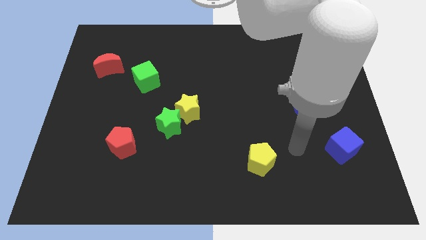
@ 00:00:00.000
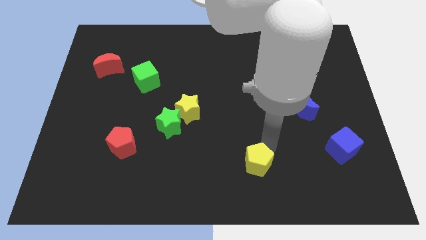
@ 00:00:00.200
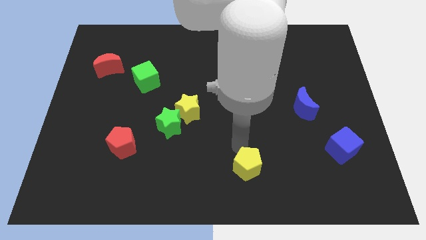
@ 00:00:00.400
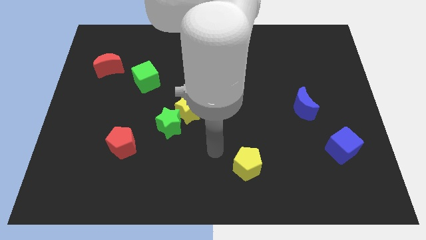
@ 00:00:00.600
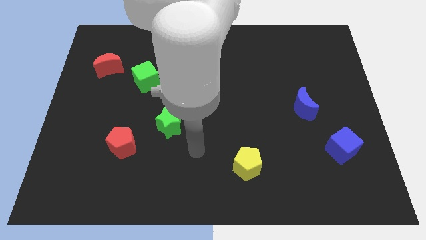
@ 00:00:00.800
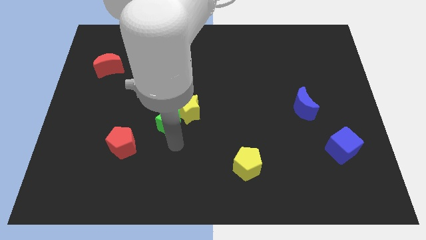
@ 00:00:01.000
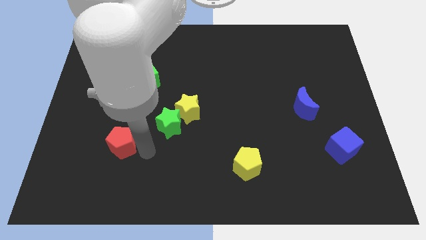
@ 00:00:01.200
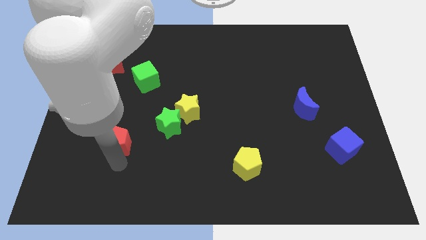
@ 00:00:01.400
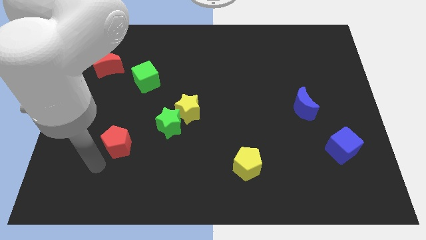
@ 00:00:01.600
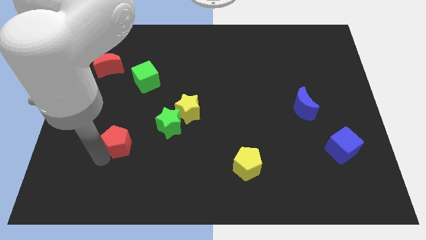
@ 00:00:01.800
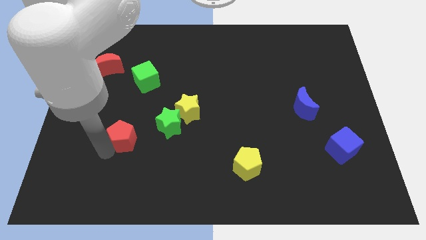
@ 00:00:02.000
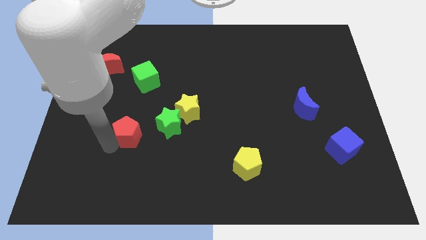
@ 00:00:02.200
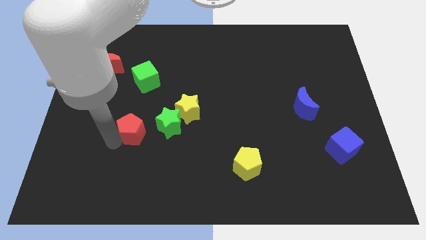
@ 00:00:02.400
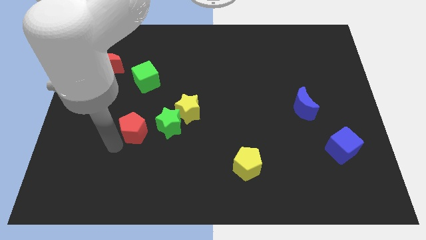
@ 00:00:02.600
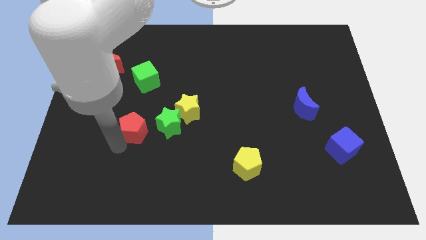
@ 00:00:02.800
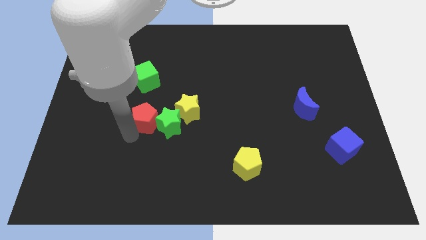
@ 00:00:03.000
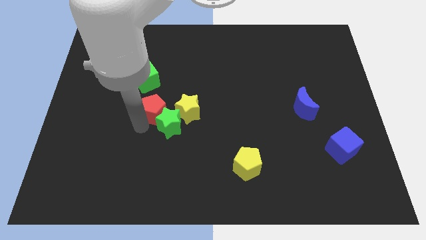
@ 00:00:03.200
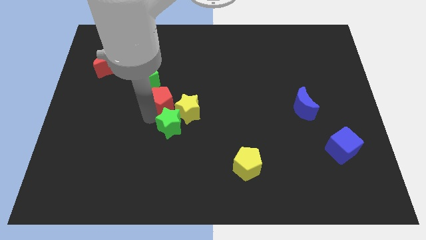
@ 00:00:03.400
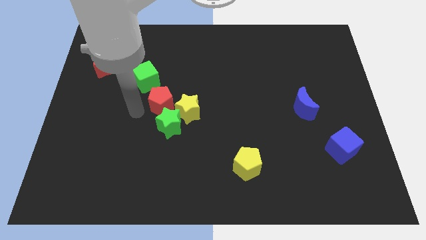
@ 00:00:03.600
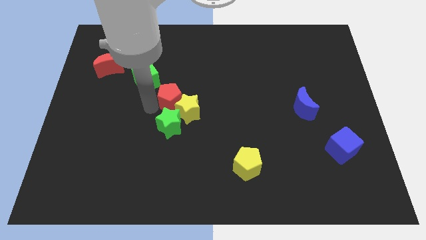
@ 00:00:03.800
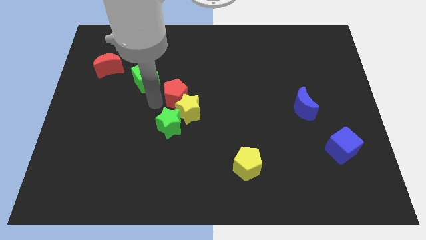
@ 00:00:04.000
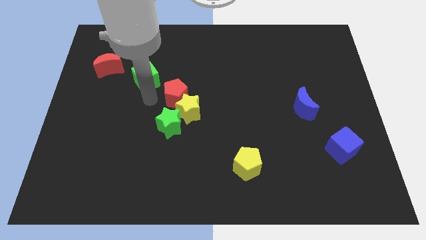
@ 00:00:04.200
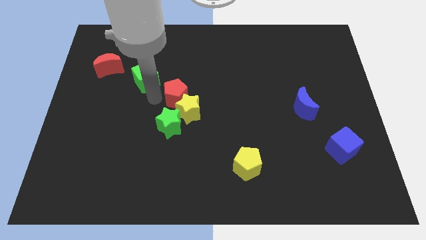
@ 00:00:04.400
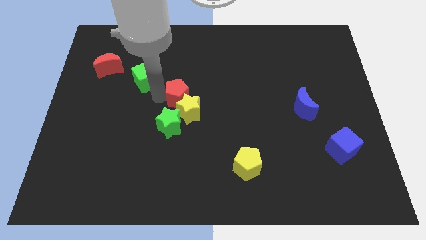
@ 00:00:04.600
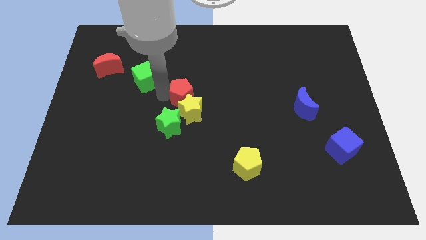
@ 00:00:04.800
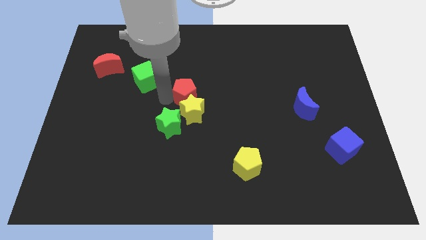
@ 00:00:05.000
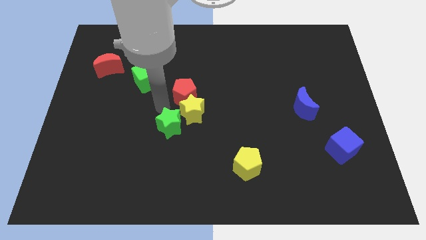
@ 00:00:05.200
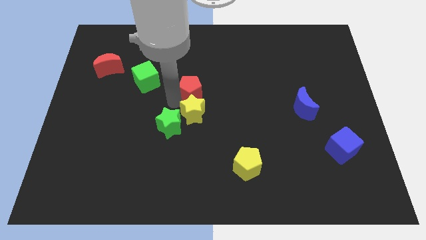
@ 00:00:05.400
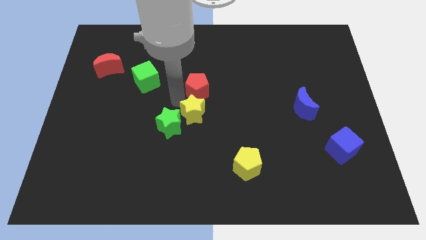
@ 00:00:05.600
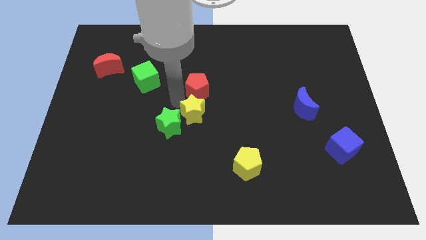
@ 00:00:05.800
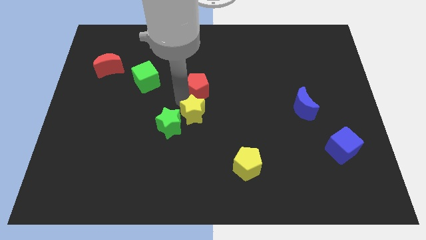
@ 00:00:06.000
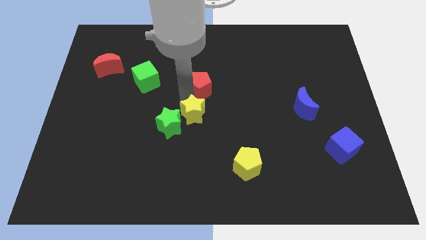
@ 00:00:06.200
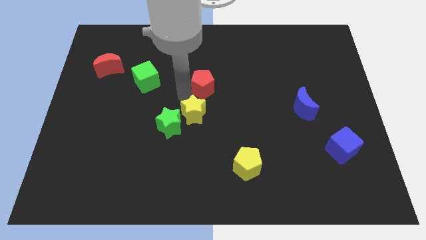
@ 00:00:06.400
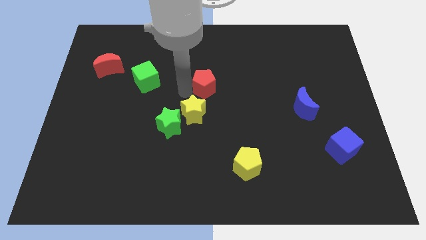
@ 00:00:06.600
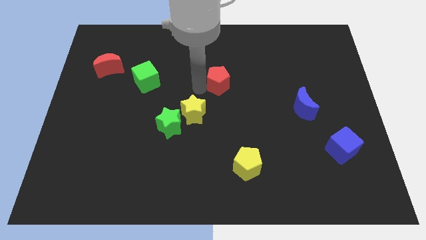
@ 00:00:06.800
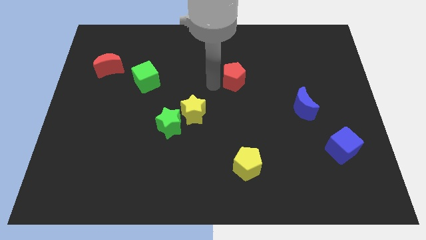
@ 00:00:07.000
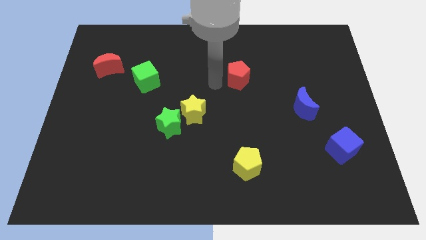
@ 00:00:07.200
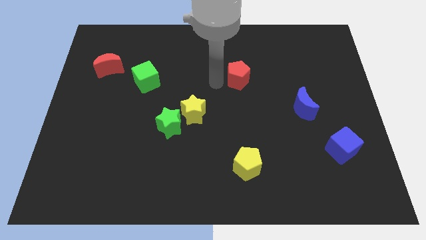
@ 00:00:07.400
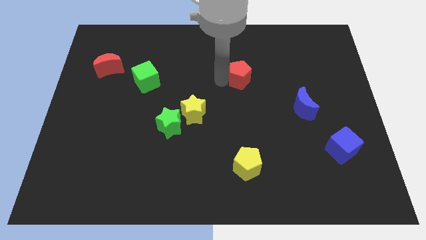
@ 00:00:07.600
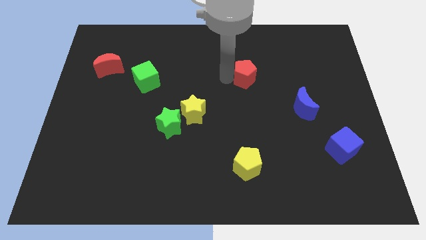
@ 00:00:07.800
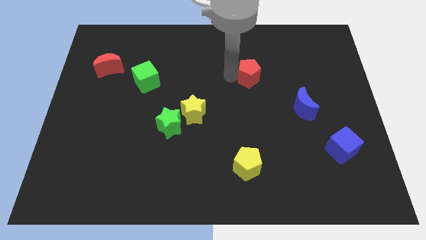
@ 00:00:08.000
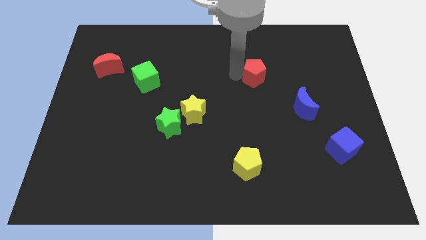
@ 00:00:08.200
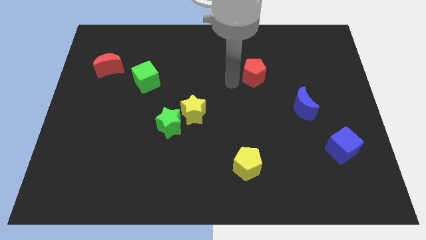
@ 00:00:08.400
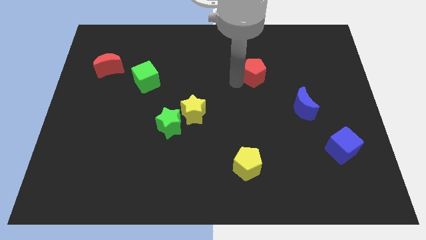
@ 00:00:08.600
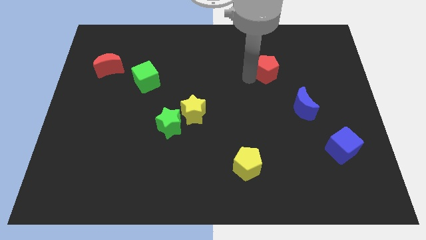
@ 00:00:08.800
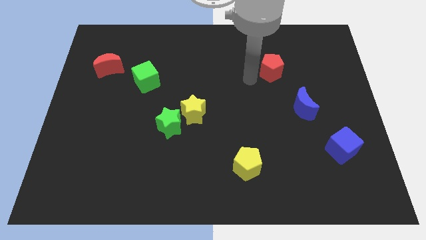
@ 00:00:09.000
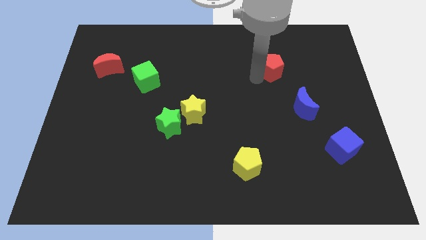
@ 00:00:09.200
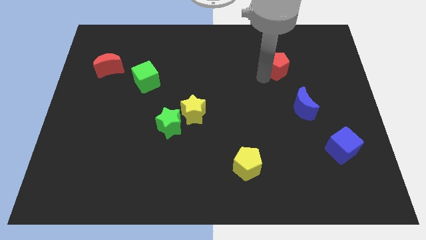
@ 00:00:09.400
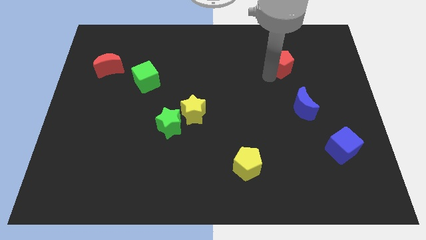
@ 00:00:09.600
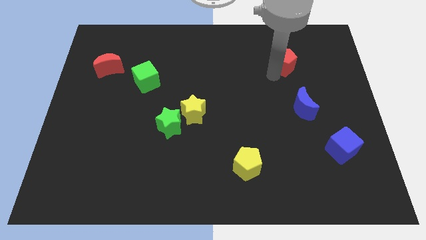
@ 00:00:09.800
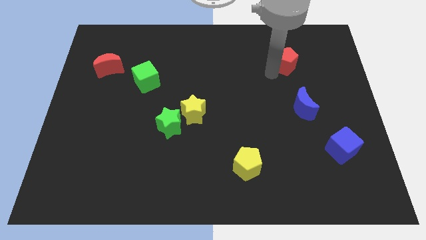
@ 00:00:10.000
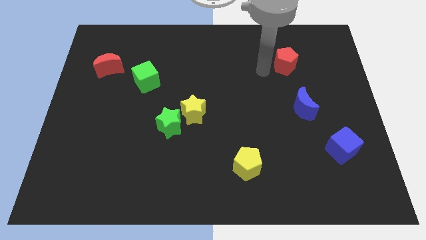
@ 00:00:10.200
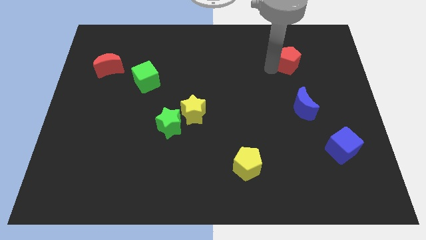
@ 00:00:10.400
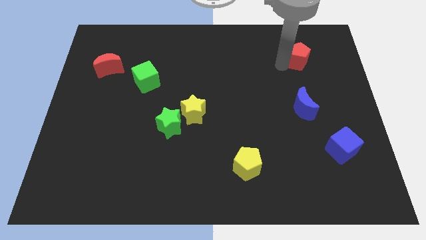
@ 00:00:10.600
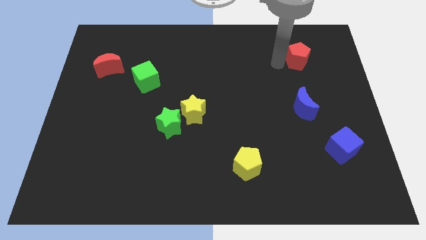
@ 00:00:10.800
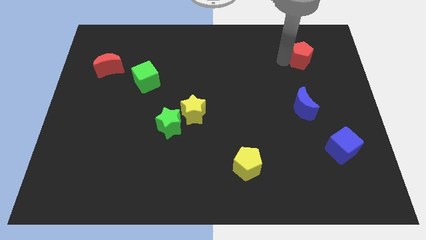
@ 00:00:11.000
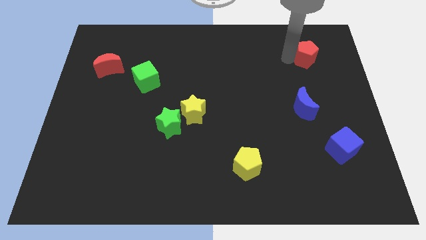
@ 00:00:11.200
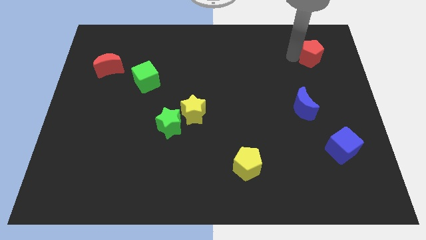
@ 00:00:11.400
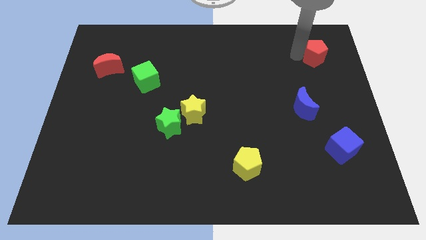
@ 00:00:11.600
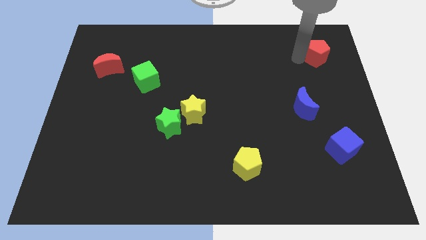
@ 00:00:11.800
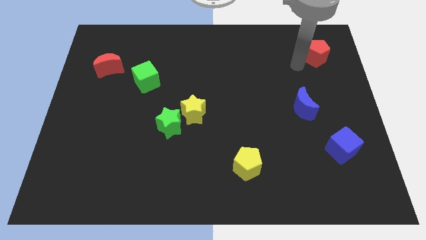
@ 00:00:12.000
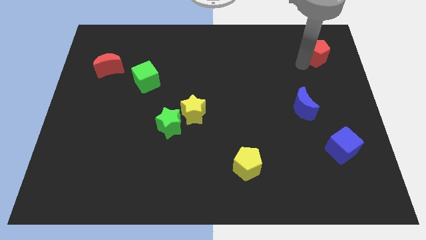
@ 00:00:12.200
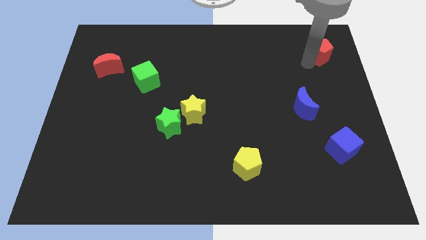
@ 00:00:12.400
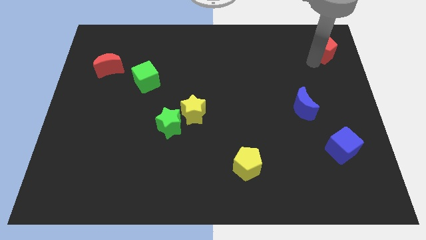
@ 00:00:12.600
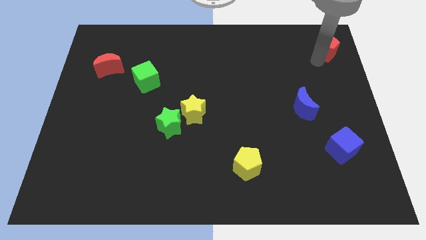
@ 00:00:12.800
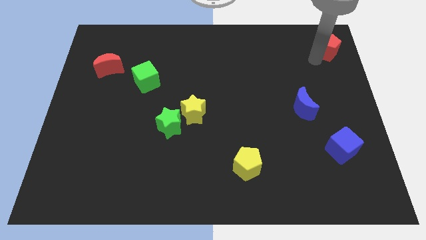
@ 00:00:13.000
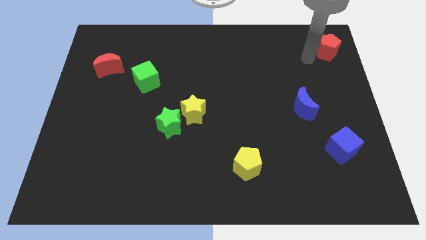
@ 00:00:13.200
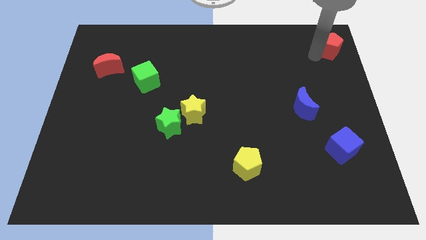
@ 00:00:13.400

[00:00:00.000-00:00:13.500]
put the red pentagon to the upper right corner
